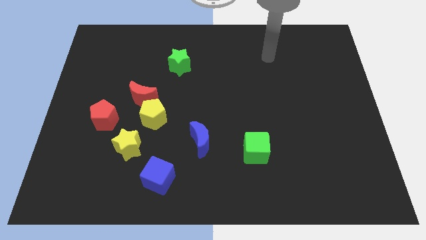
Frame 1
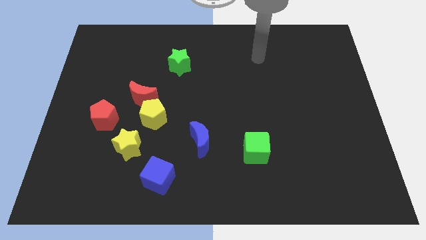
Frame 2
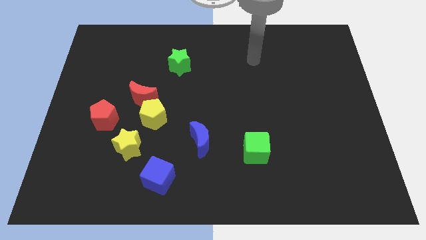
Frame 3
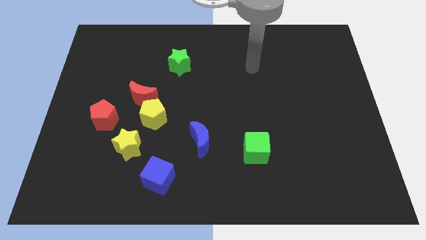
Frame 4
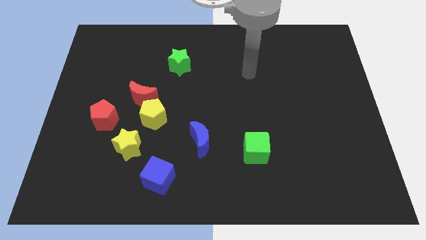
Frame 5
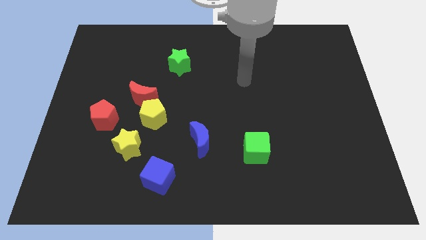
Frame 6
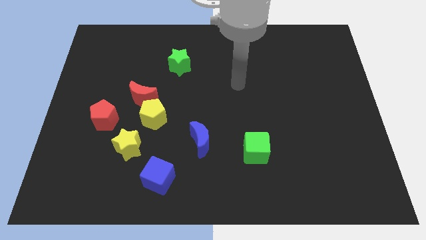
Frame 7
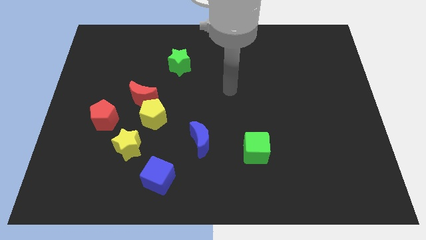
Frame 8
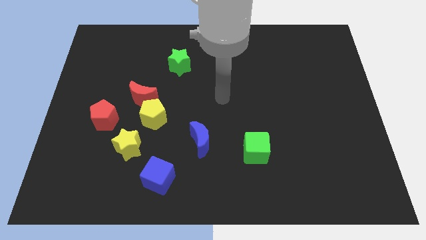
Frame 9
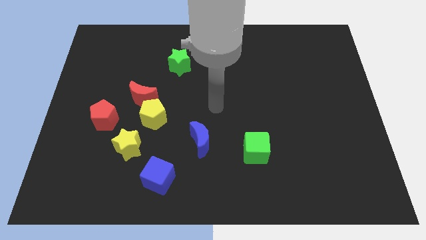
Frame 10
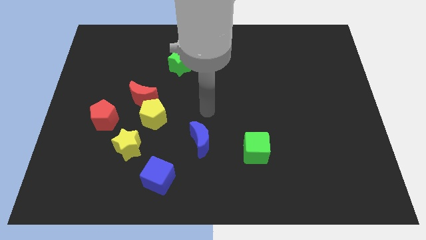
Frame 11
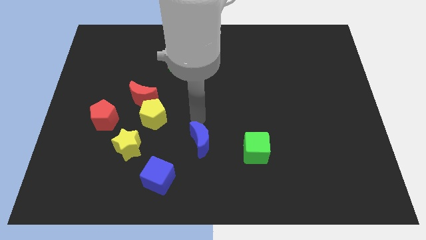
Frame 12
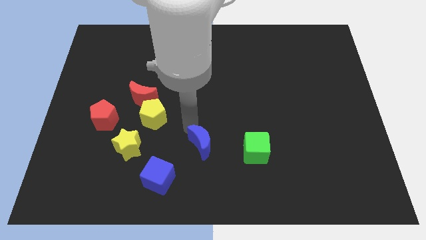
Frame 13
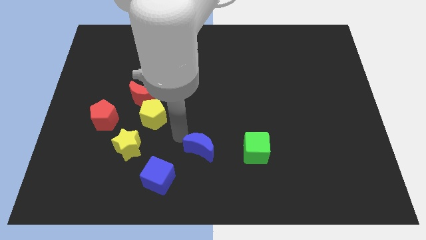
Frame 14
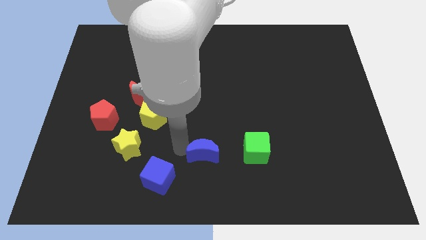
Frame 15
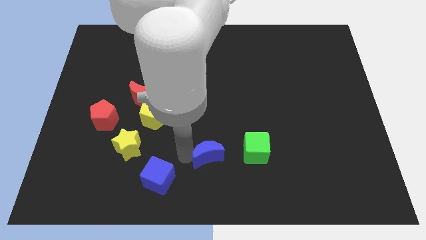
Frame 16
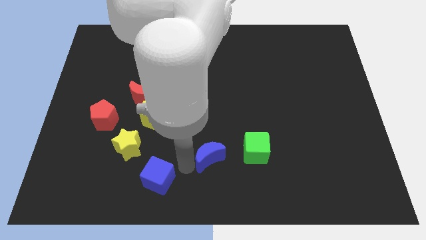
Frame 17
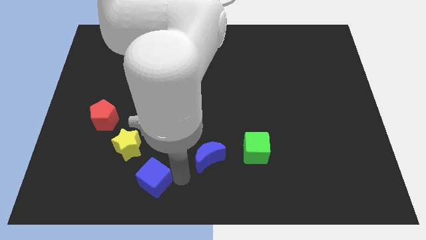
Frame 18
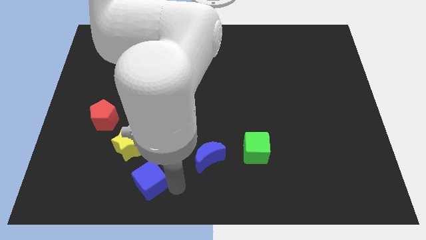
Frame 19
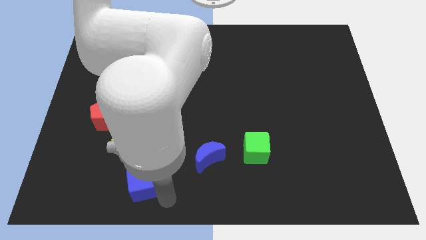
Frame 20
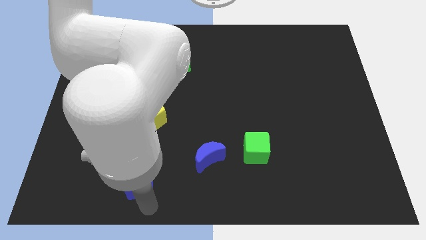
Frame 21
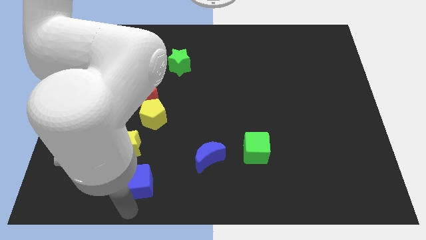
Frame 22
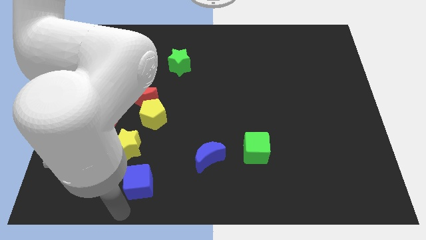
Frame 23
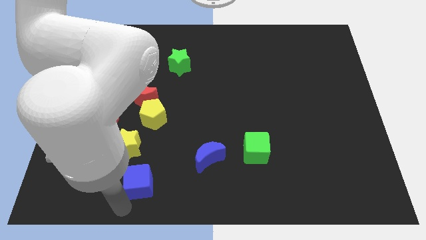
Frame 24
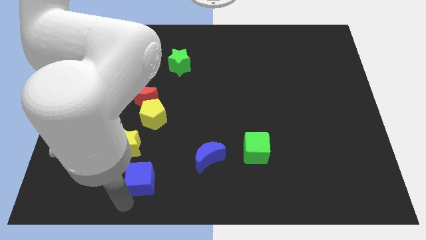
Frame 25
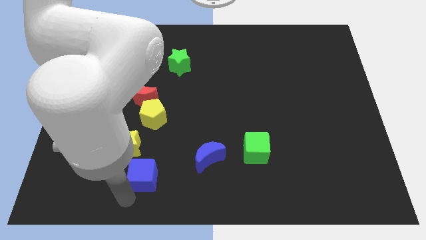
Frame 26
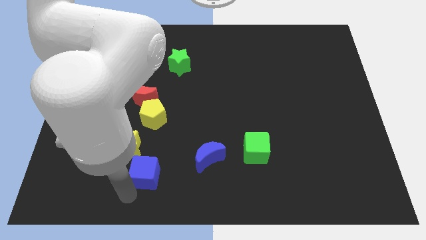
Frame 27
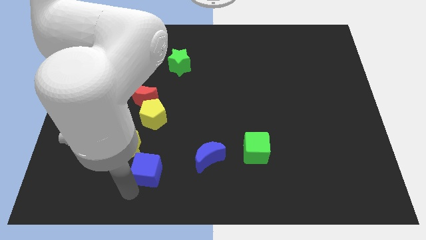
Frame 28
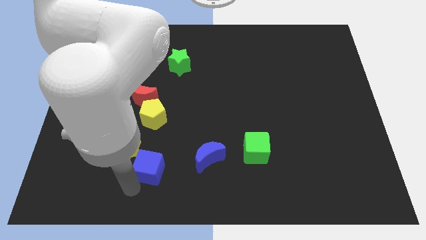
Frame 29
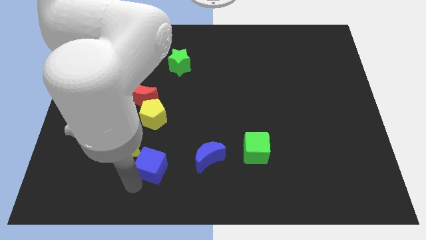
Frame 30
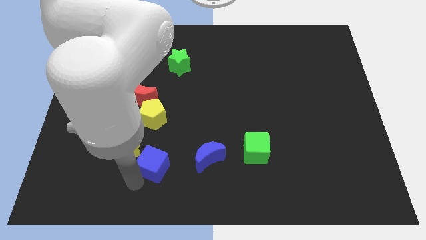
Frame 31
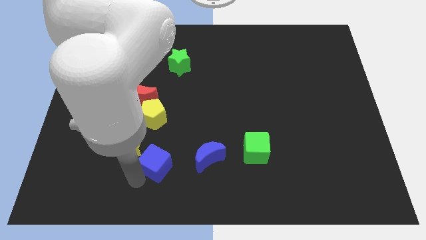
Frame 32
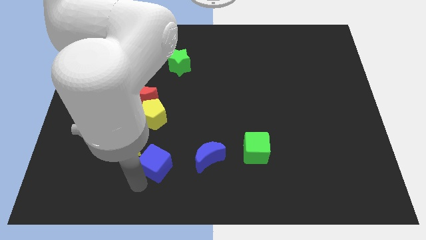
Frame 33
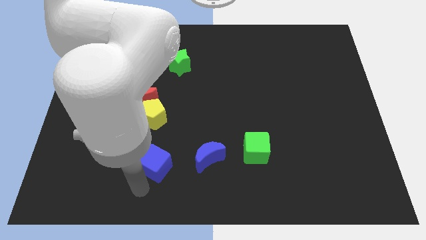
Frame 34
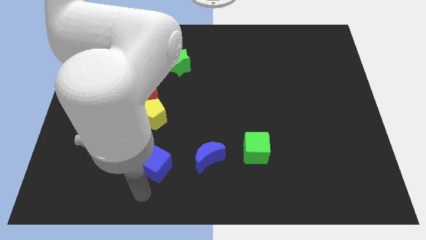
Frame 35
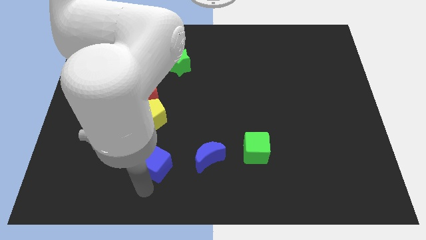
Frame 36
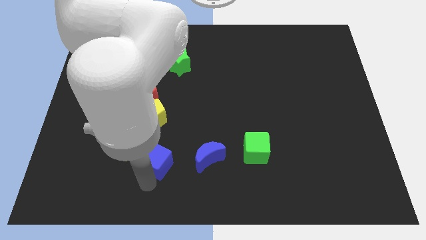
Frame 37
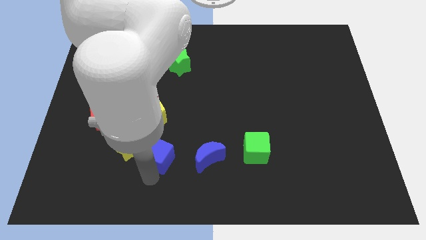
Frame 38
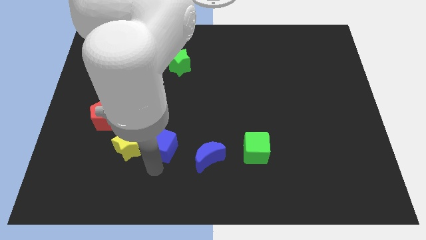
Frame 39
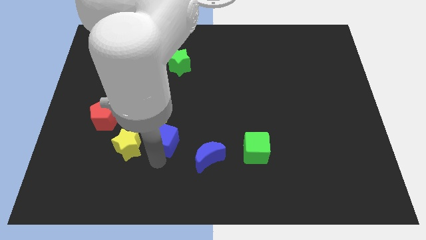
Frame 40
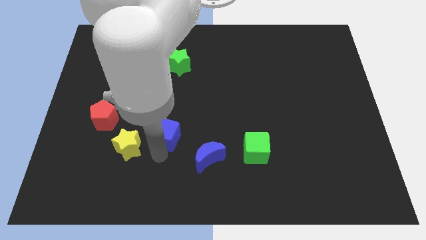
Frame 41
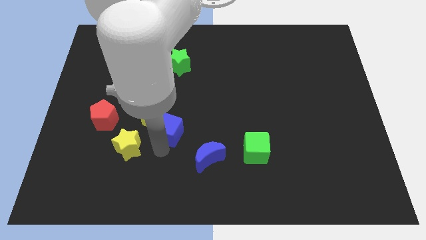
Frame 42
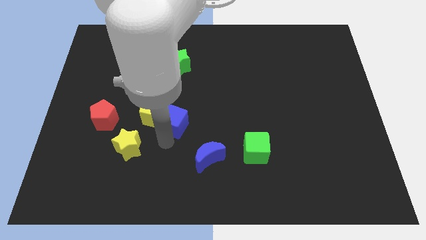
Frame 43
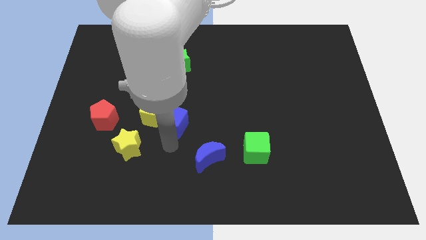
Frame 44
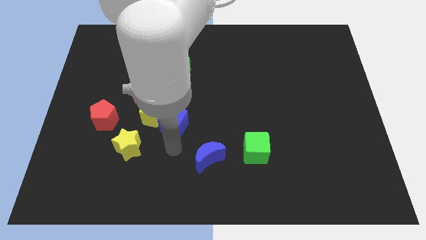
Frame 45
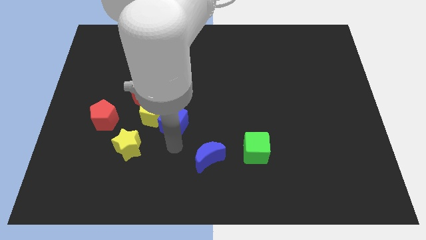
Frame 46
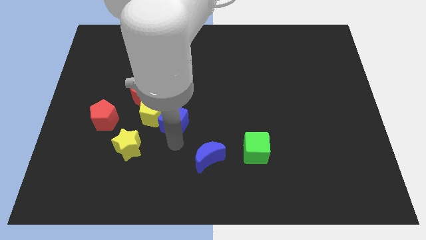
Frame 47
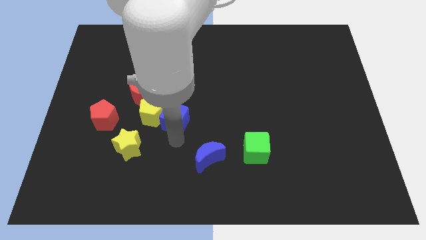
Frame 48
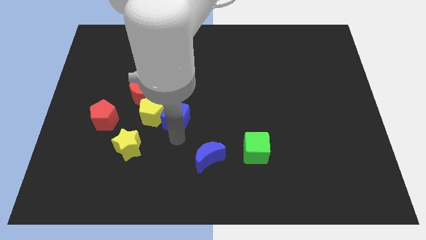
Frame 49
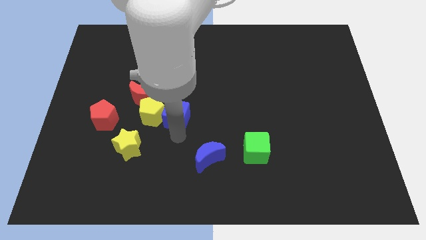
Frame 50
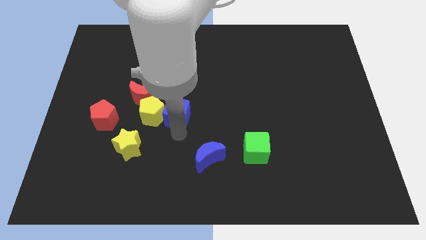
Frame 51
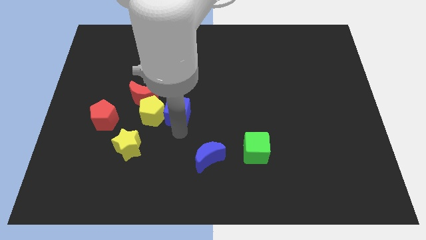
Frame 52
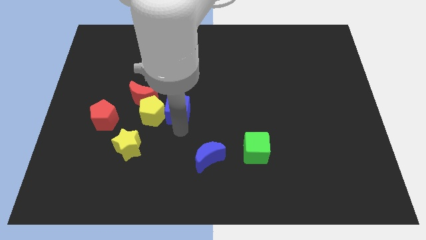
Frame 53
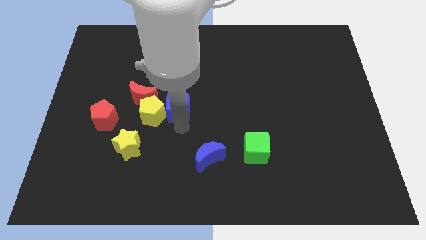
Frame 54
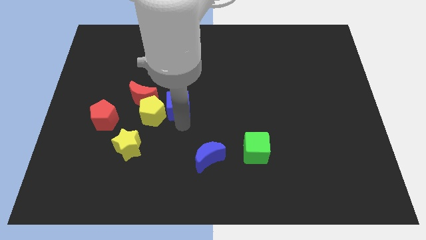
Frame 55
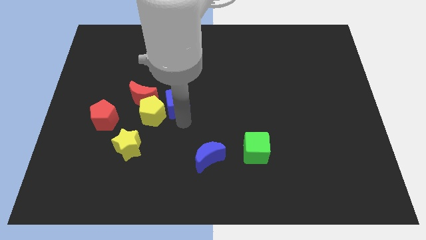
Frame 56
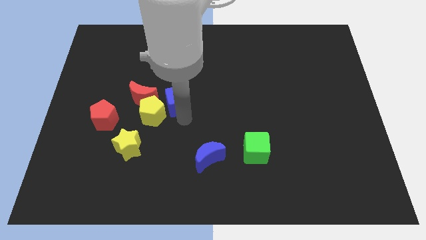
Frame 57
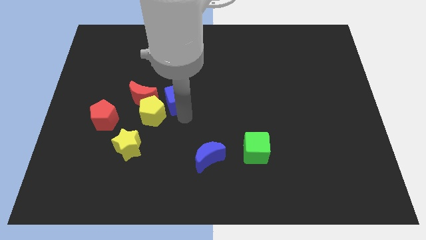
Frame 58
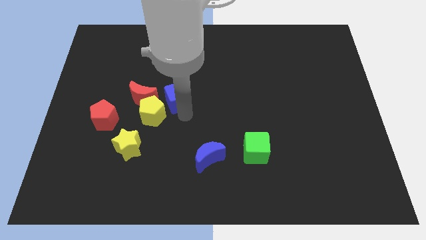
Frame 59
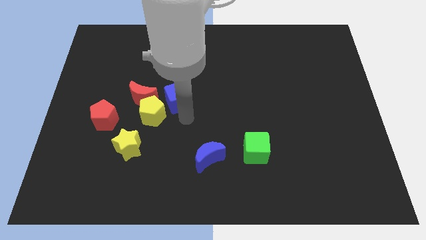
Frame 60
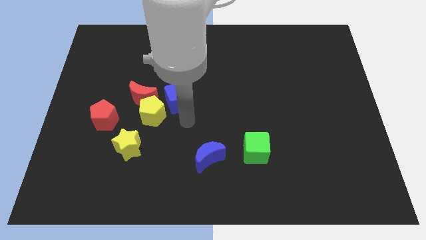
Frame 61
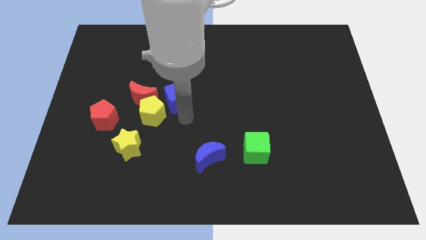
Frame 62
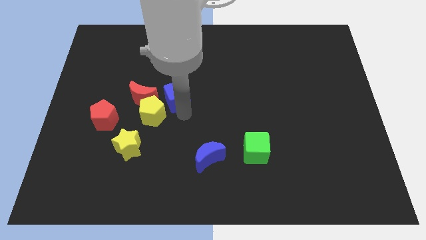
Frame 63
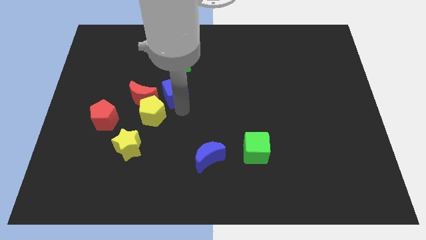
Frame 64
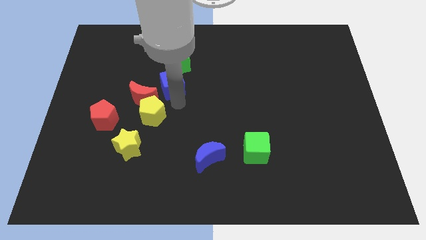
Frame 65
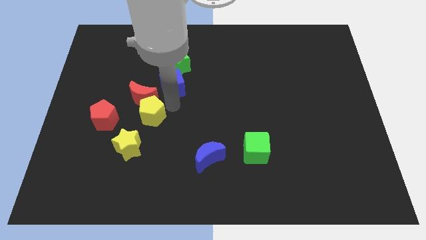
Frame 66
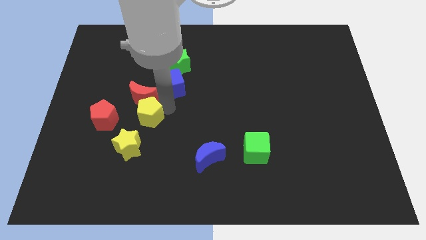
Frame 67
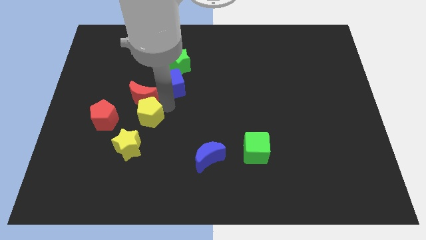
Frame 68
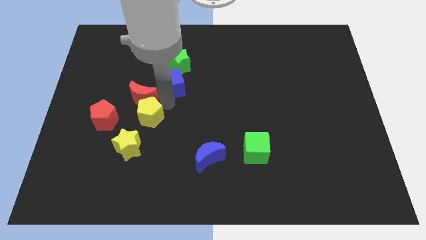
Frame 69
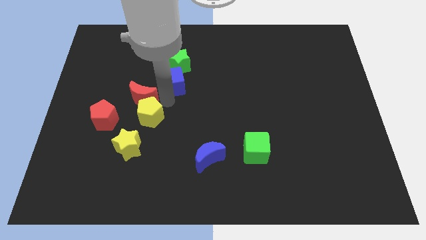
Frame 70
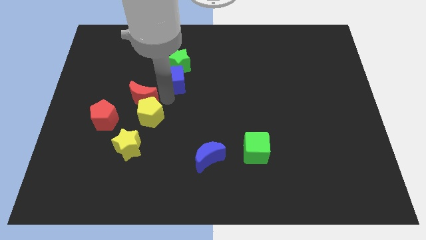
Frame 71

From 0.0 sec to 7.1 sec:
put the blue cube next to the green star
